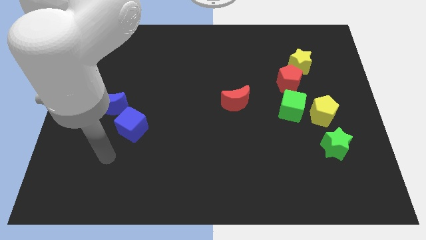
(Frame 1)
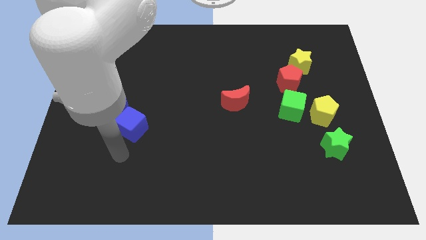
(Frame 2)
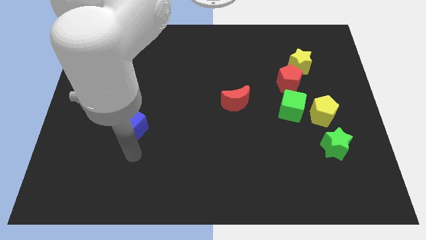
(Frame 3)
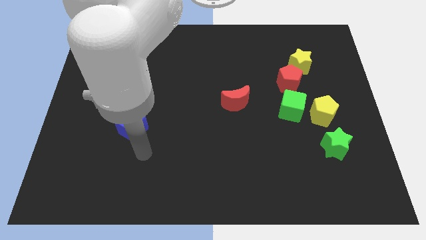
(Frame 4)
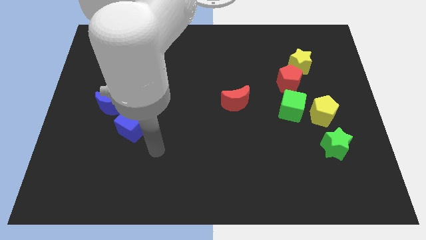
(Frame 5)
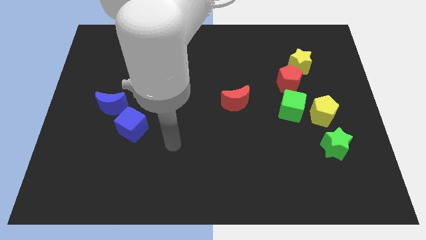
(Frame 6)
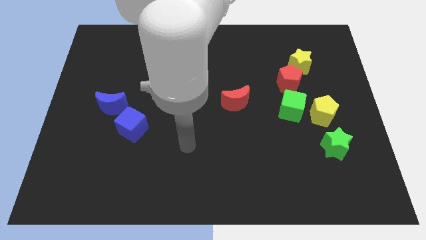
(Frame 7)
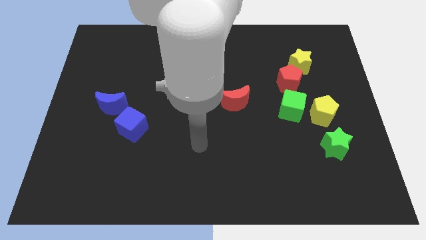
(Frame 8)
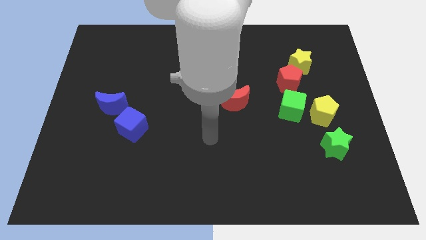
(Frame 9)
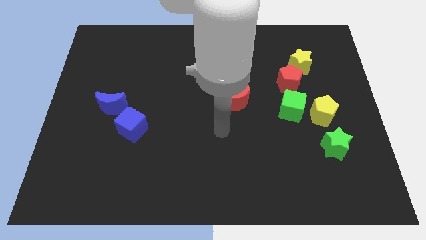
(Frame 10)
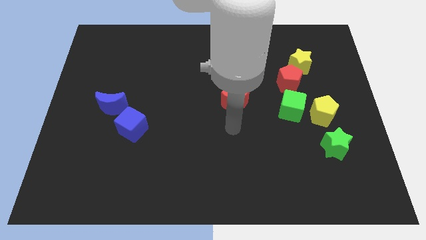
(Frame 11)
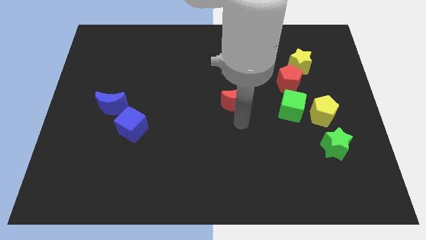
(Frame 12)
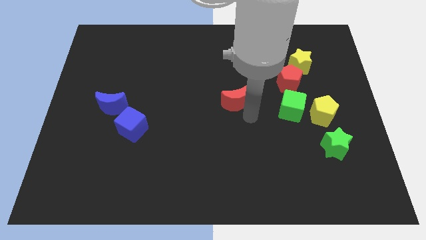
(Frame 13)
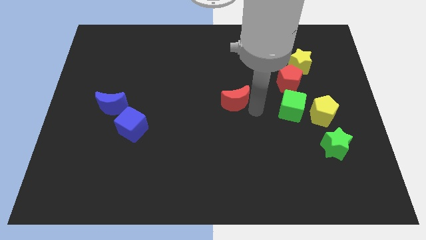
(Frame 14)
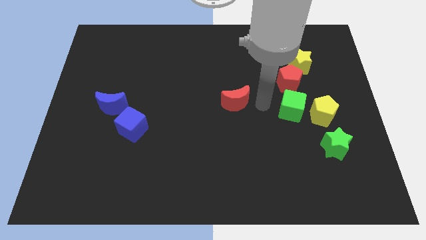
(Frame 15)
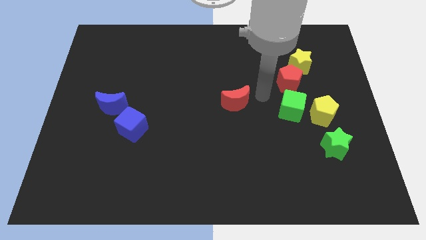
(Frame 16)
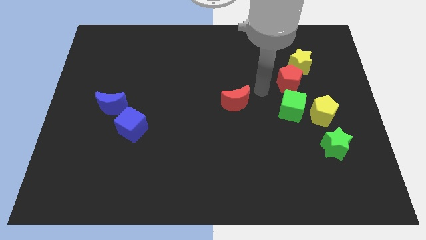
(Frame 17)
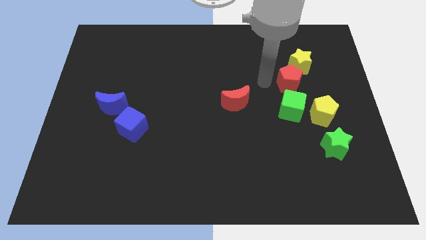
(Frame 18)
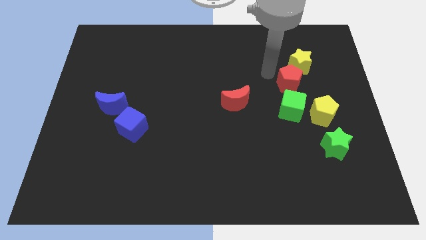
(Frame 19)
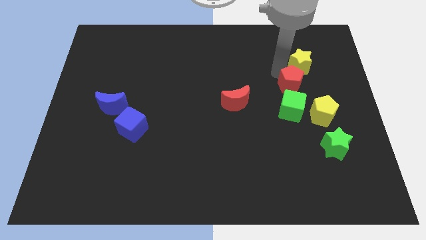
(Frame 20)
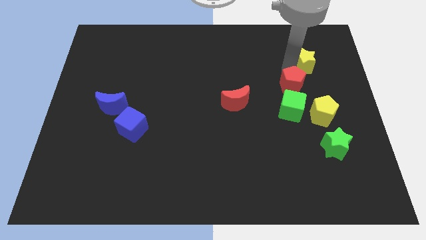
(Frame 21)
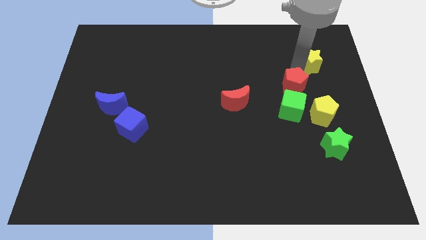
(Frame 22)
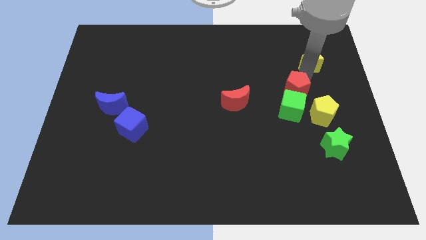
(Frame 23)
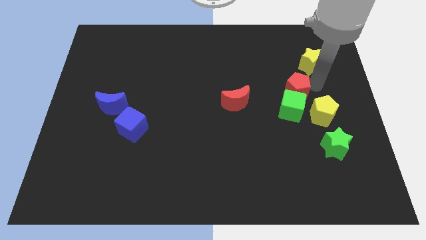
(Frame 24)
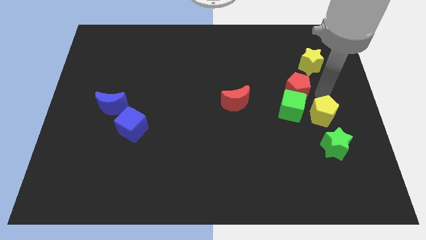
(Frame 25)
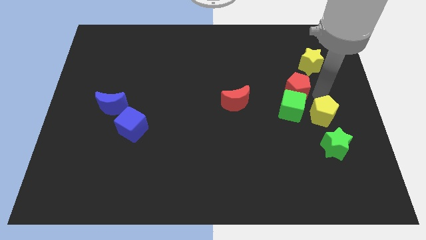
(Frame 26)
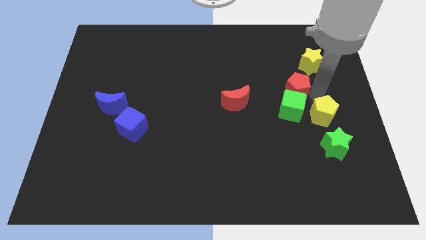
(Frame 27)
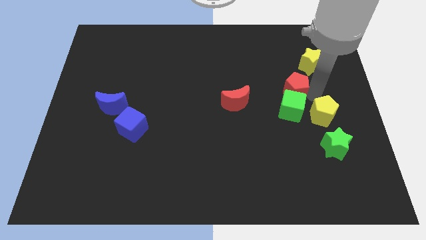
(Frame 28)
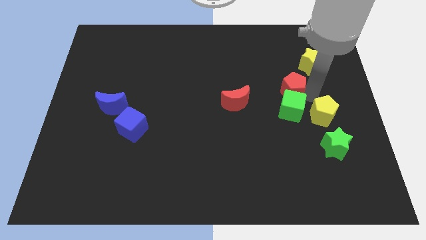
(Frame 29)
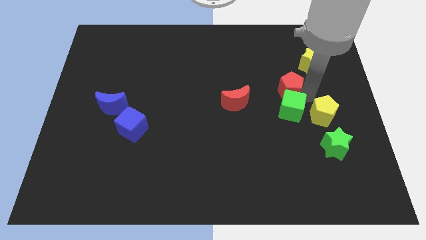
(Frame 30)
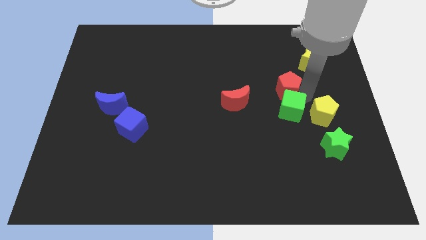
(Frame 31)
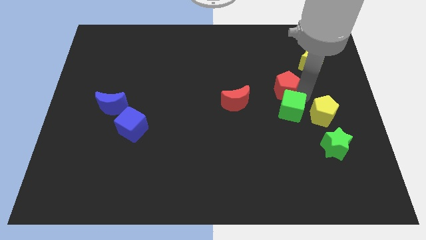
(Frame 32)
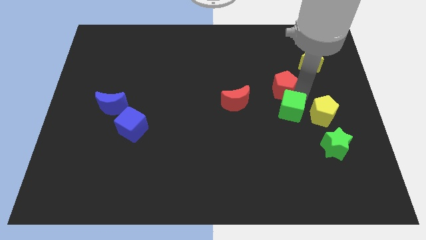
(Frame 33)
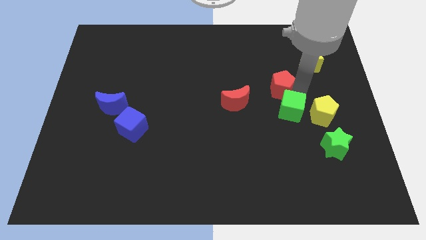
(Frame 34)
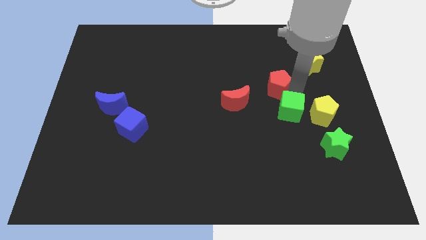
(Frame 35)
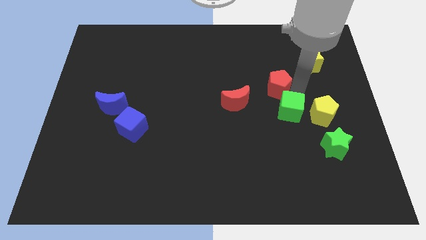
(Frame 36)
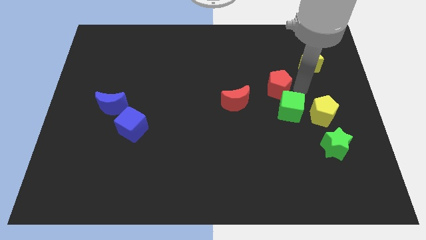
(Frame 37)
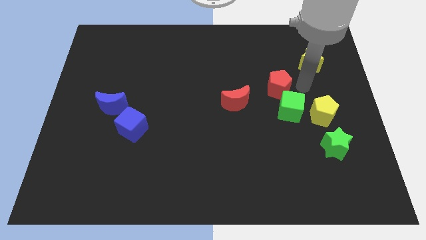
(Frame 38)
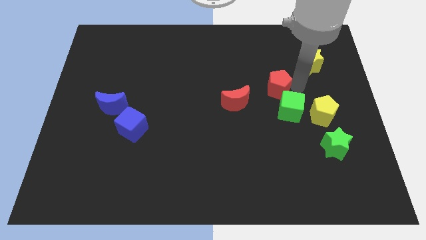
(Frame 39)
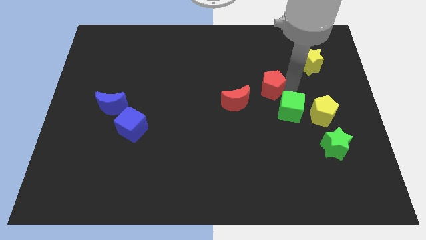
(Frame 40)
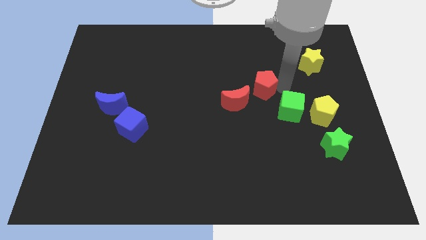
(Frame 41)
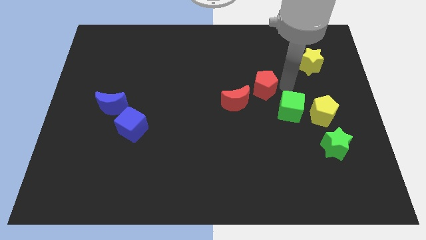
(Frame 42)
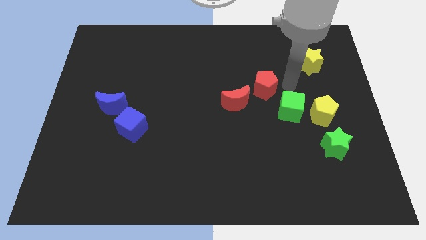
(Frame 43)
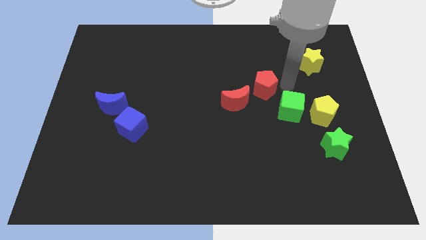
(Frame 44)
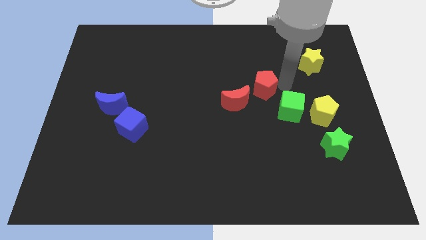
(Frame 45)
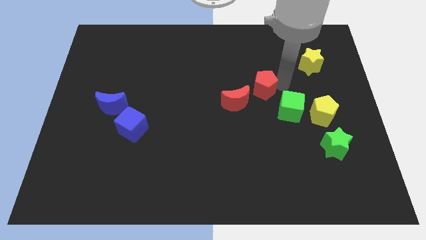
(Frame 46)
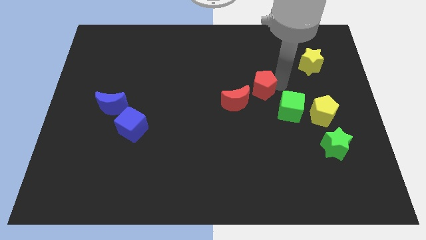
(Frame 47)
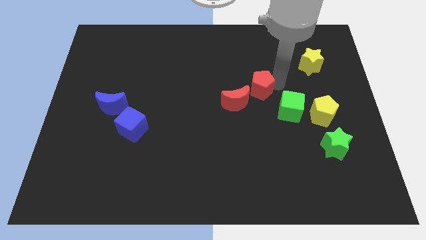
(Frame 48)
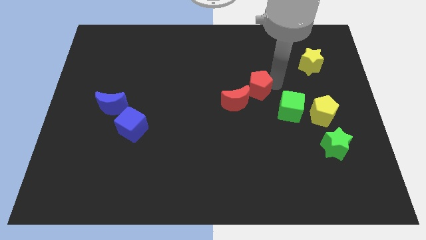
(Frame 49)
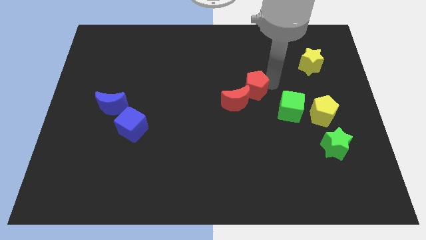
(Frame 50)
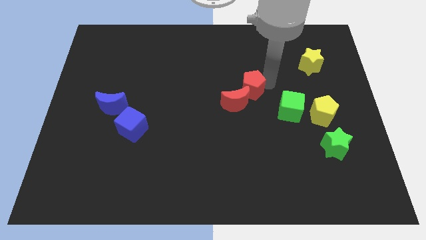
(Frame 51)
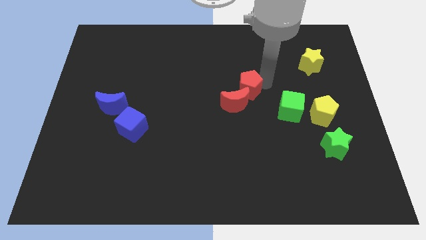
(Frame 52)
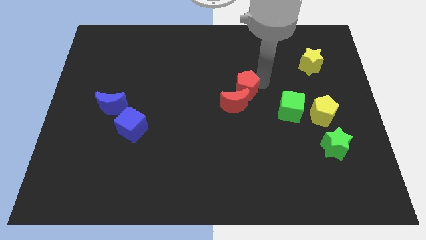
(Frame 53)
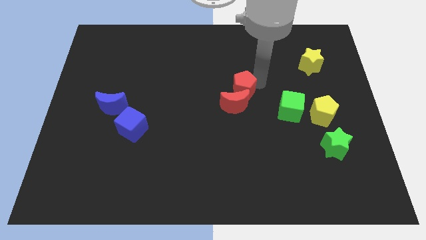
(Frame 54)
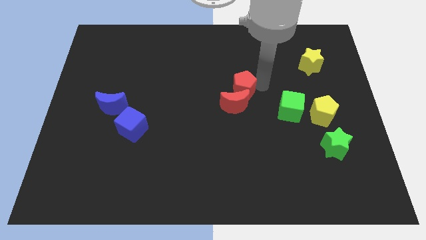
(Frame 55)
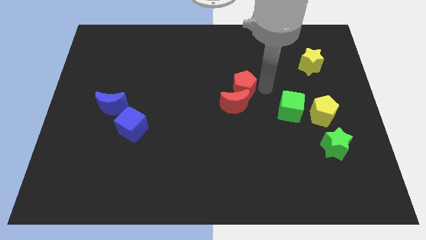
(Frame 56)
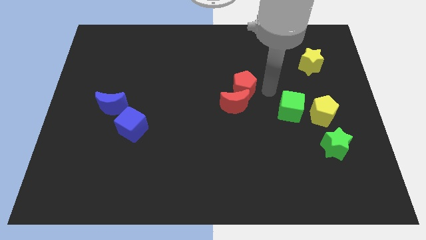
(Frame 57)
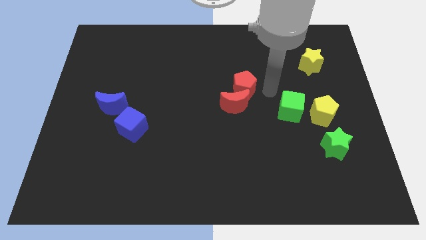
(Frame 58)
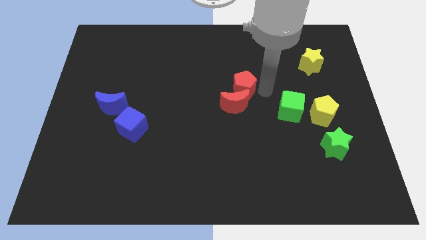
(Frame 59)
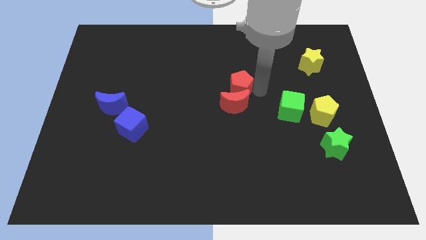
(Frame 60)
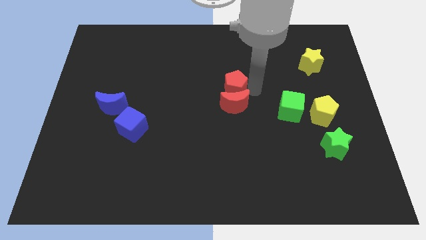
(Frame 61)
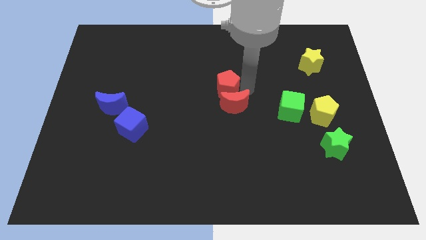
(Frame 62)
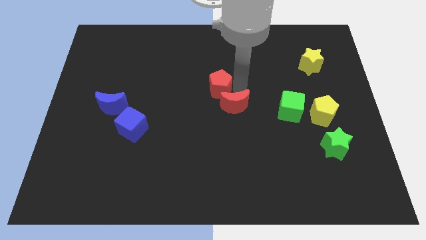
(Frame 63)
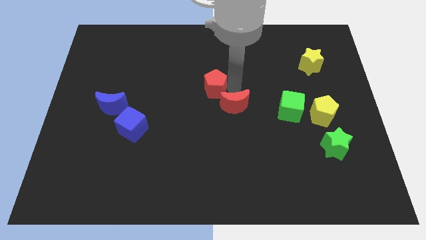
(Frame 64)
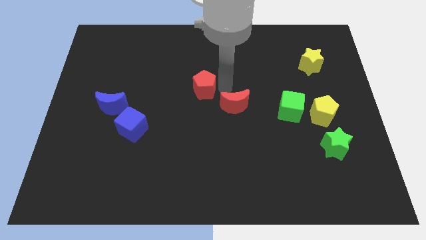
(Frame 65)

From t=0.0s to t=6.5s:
push the red pentagon left

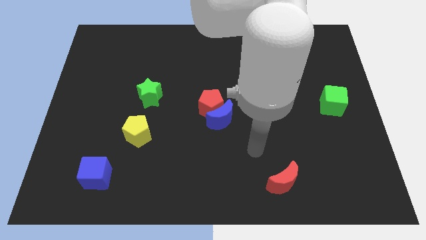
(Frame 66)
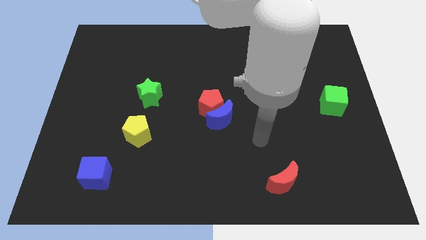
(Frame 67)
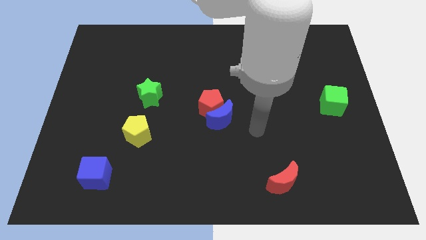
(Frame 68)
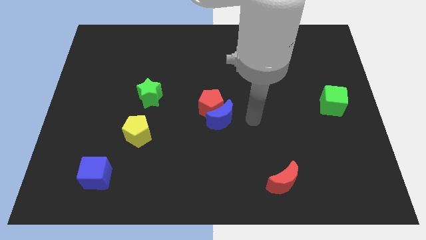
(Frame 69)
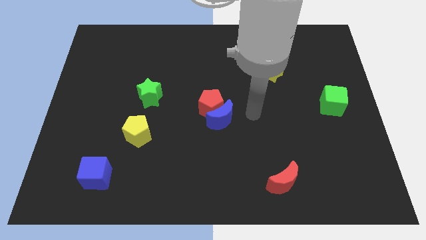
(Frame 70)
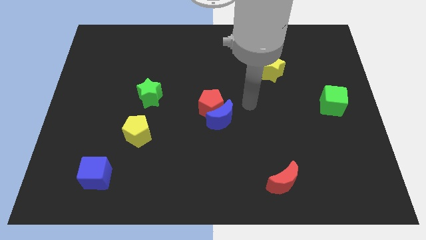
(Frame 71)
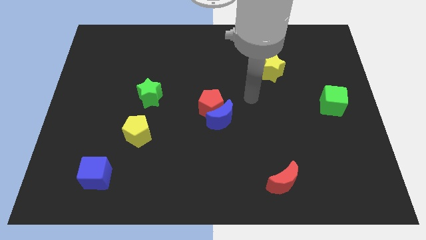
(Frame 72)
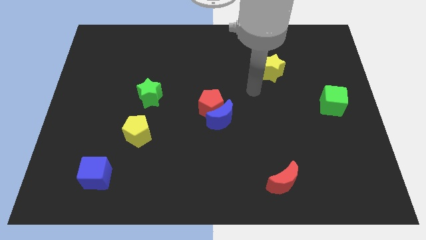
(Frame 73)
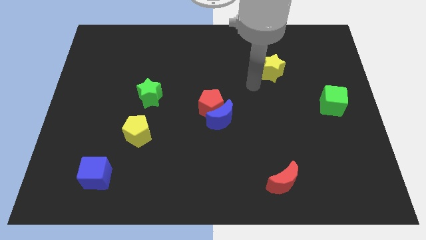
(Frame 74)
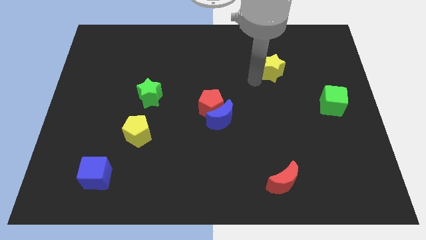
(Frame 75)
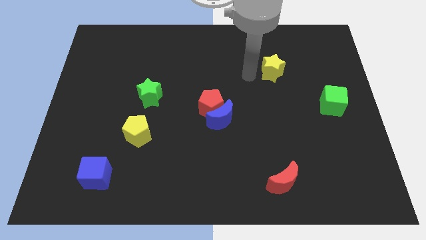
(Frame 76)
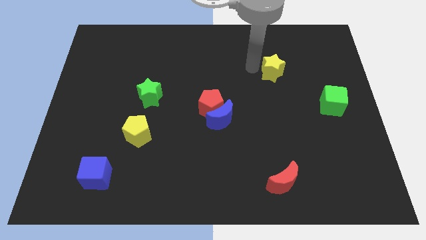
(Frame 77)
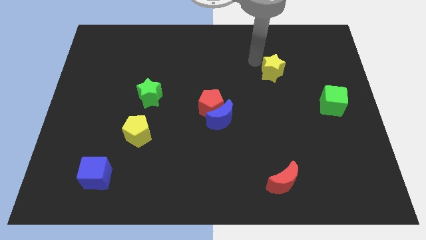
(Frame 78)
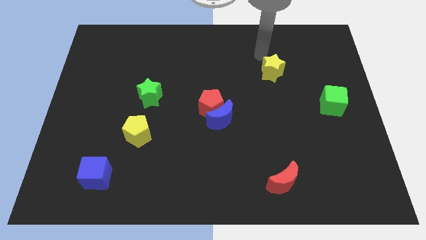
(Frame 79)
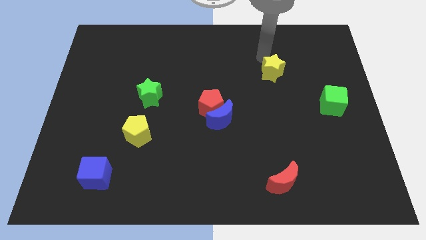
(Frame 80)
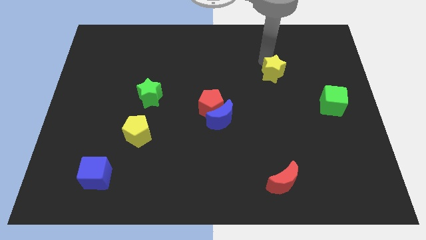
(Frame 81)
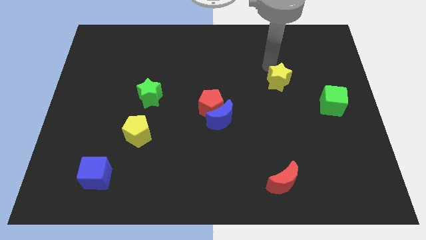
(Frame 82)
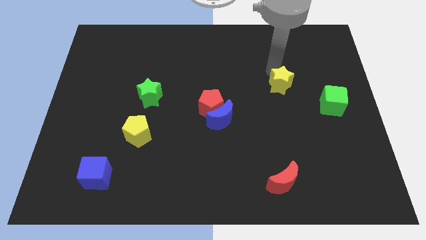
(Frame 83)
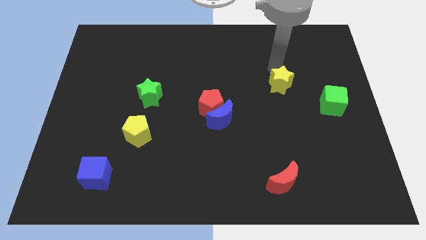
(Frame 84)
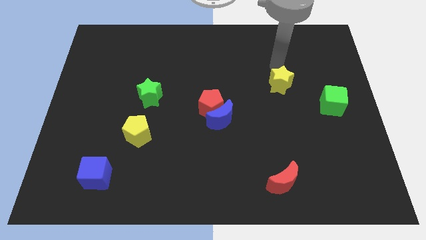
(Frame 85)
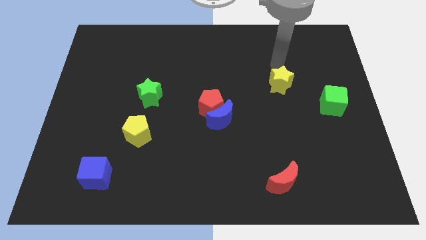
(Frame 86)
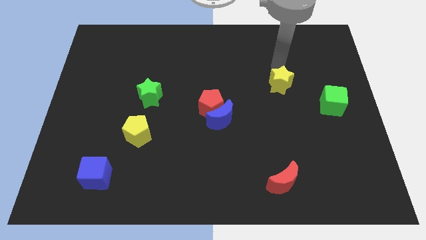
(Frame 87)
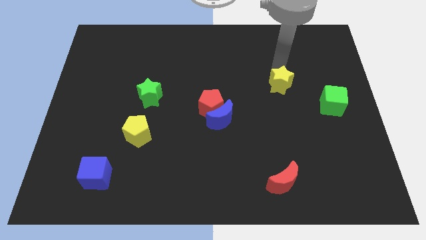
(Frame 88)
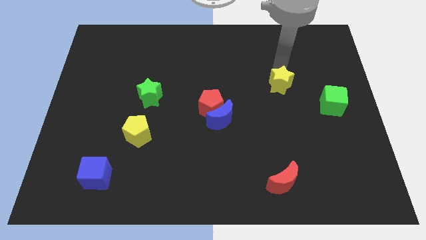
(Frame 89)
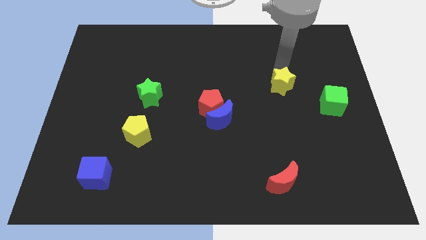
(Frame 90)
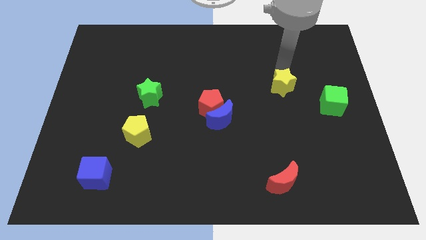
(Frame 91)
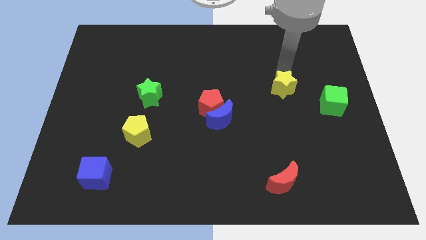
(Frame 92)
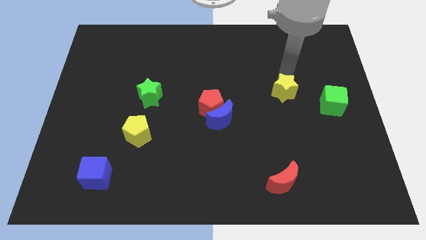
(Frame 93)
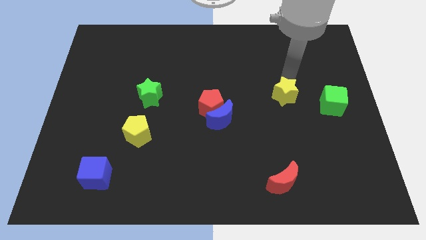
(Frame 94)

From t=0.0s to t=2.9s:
slide the yellow star downwards slightly
